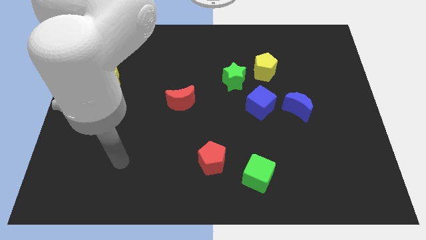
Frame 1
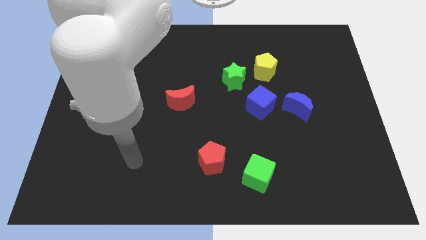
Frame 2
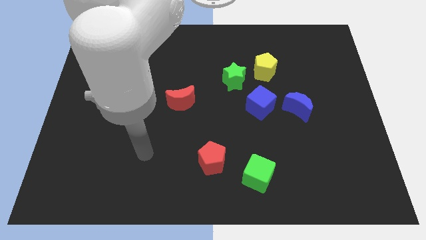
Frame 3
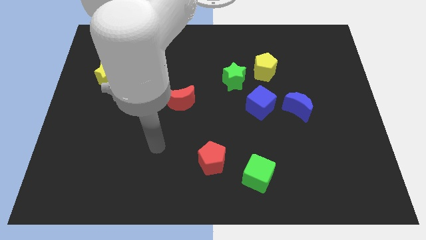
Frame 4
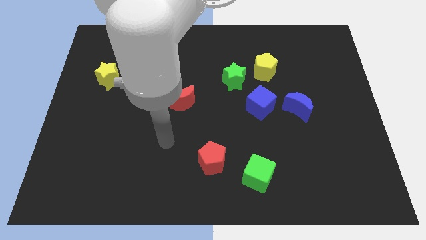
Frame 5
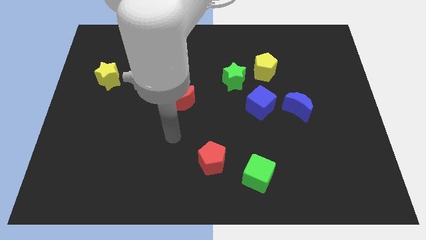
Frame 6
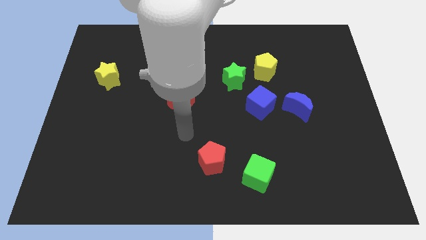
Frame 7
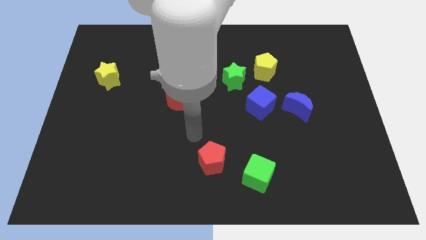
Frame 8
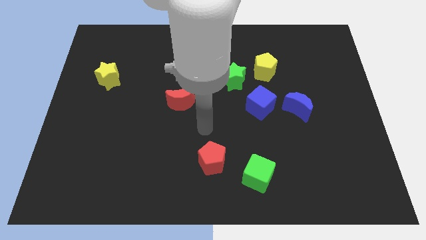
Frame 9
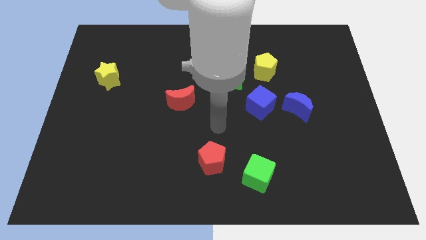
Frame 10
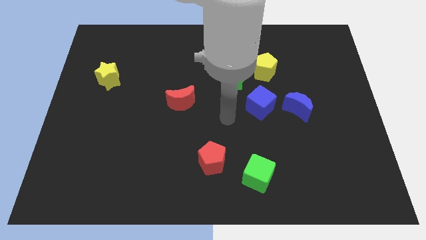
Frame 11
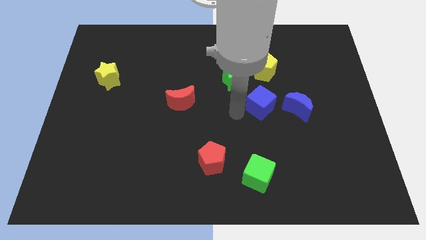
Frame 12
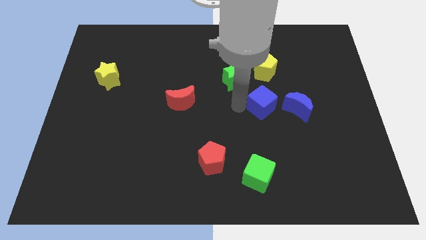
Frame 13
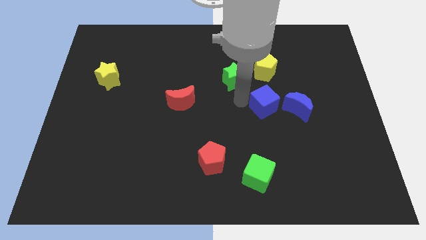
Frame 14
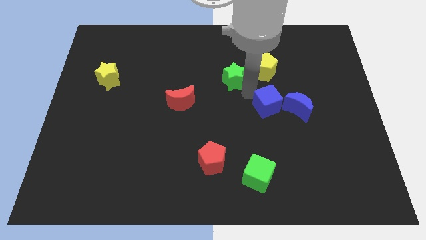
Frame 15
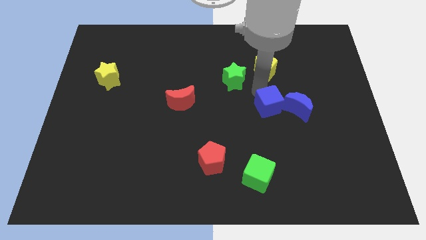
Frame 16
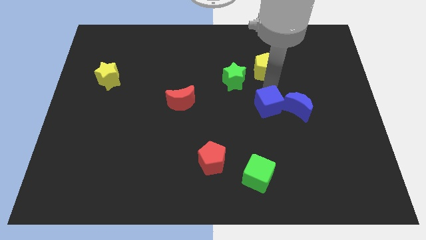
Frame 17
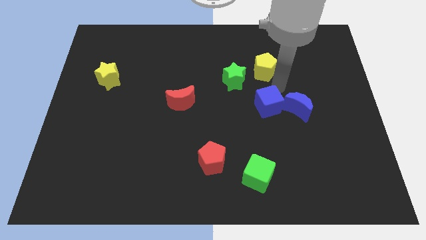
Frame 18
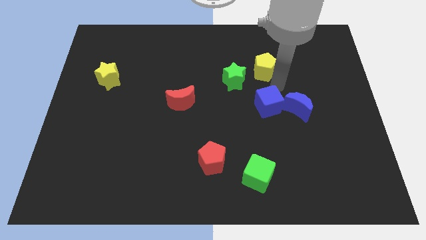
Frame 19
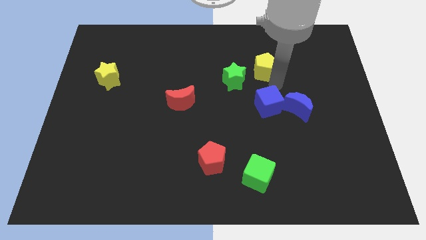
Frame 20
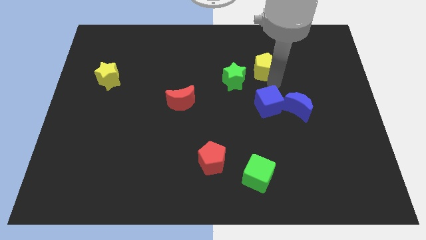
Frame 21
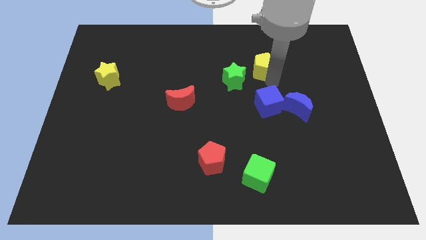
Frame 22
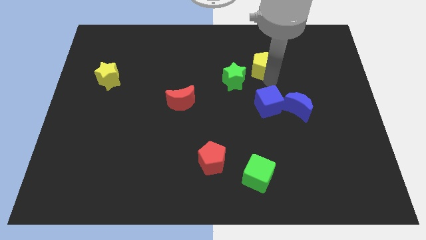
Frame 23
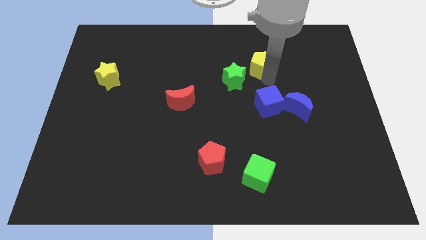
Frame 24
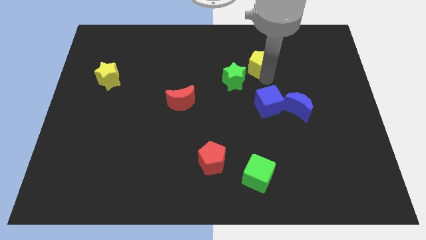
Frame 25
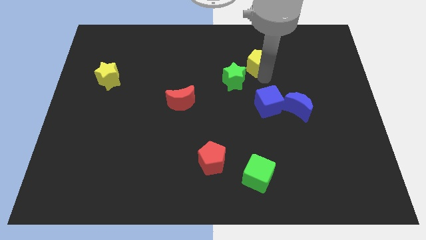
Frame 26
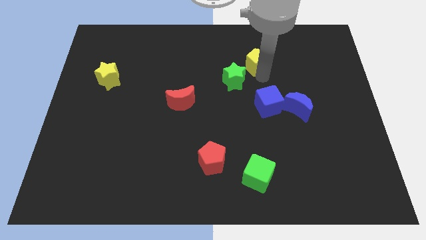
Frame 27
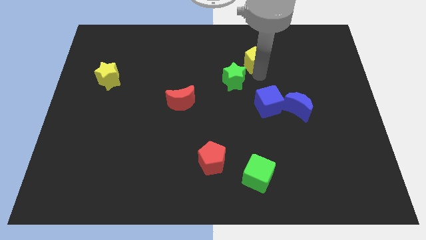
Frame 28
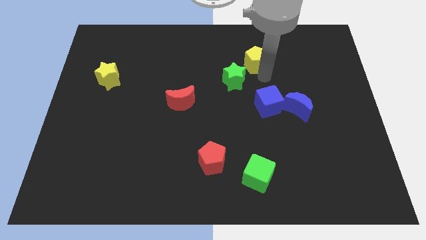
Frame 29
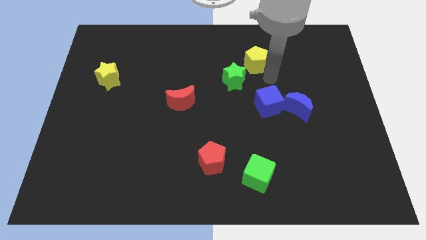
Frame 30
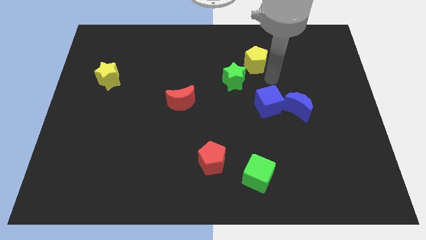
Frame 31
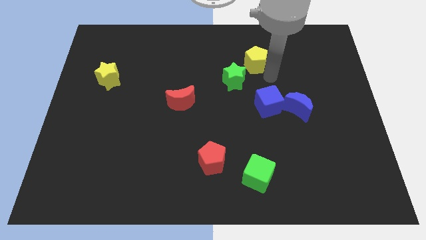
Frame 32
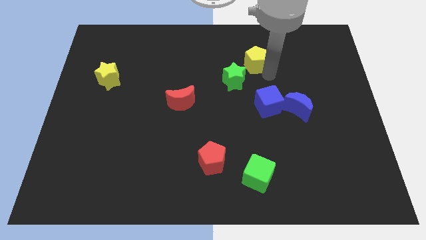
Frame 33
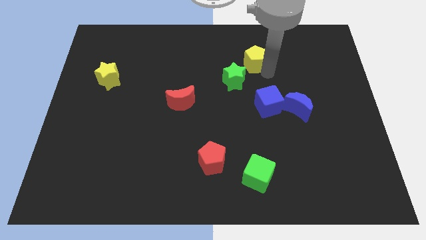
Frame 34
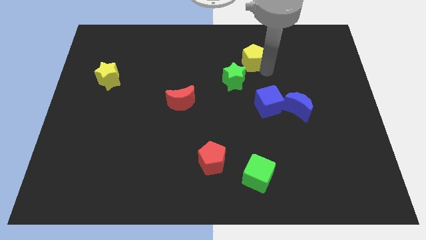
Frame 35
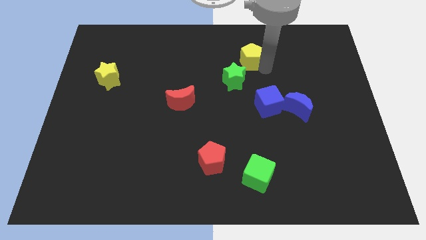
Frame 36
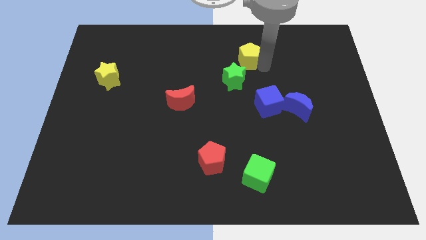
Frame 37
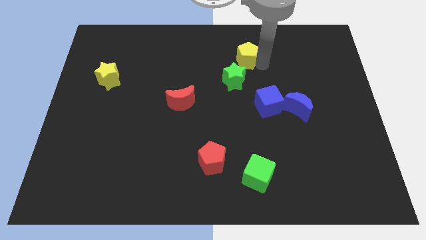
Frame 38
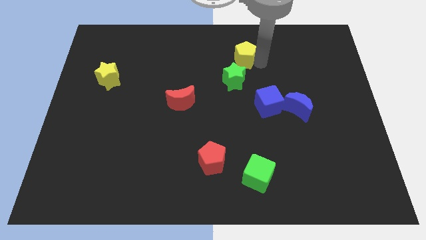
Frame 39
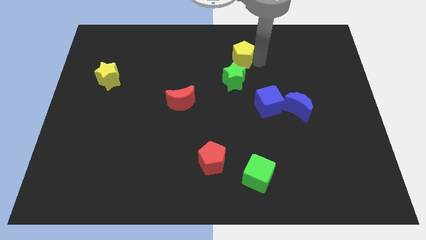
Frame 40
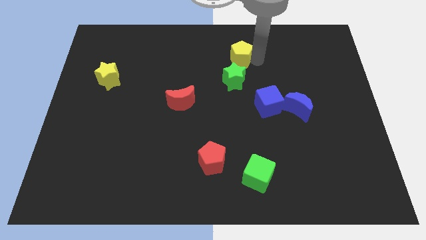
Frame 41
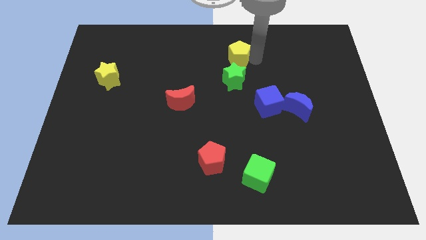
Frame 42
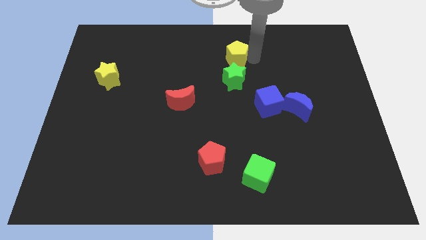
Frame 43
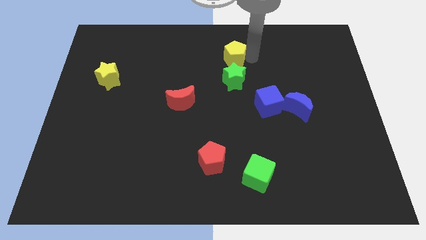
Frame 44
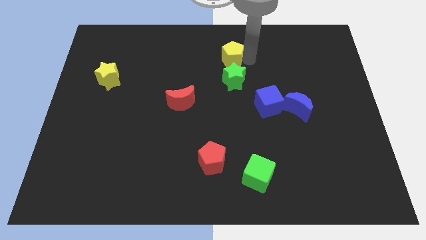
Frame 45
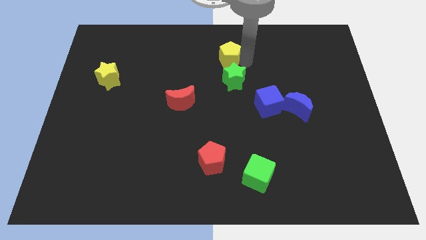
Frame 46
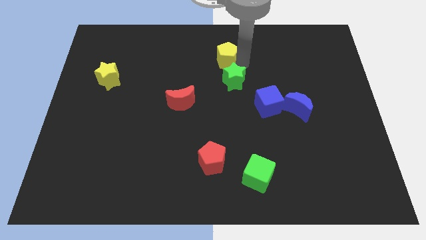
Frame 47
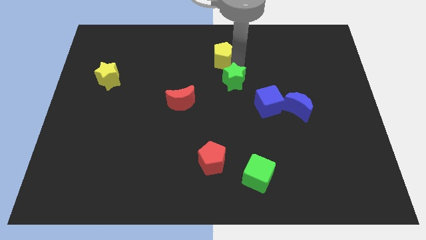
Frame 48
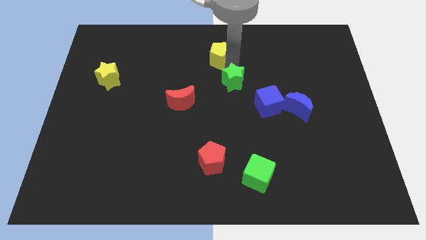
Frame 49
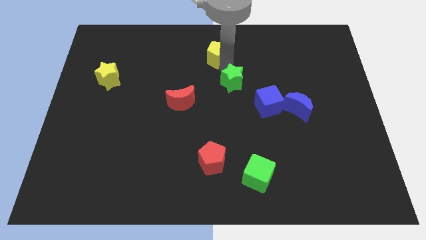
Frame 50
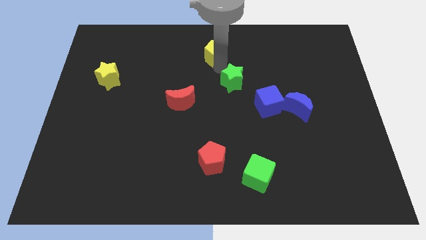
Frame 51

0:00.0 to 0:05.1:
slide the yellow pentagon to the top side
